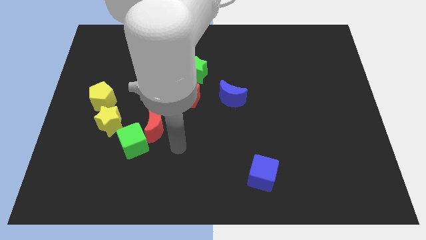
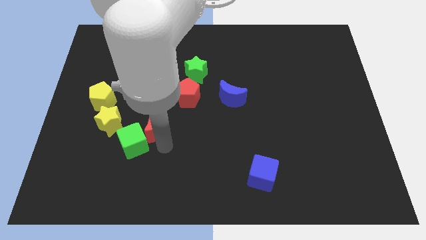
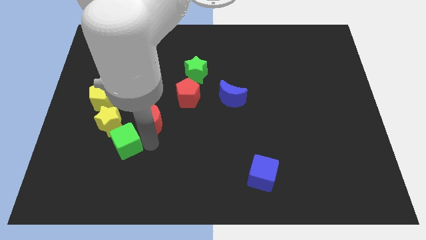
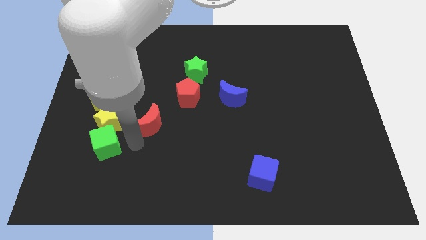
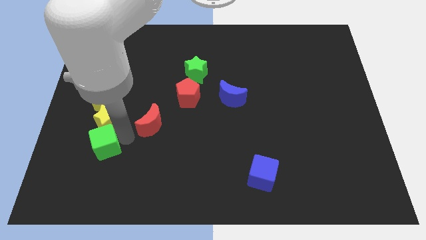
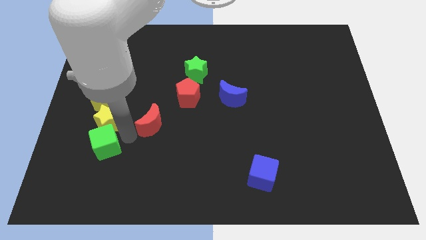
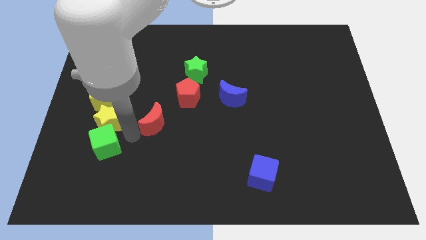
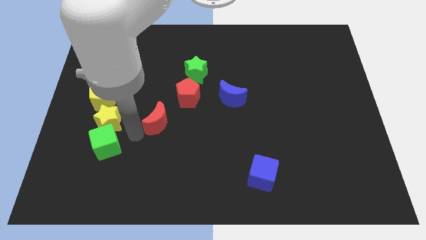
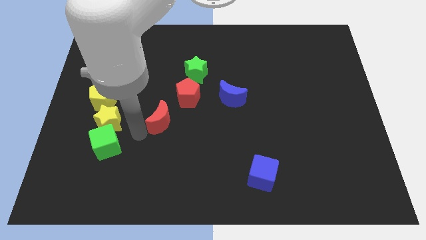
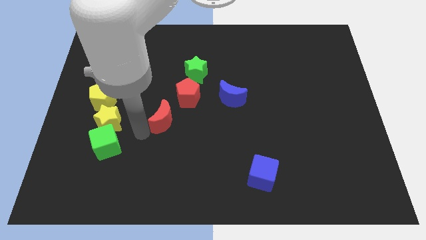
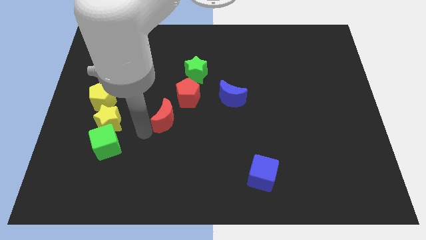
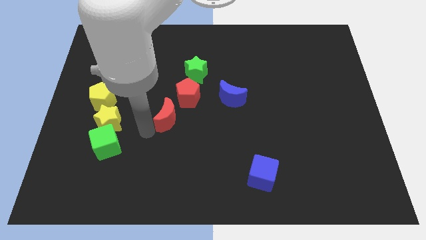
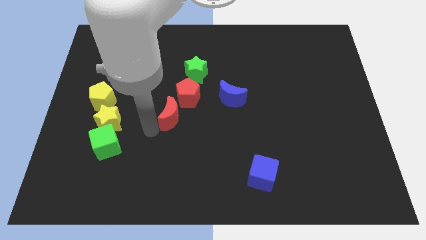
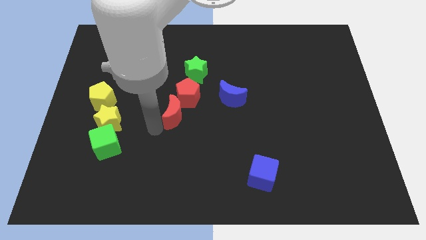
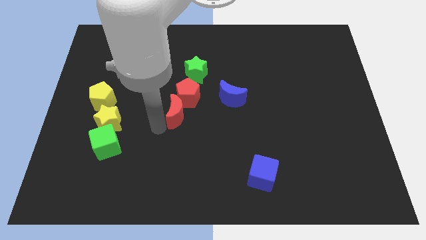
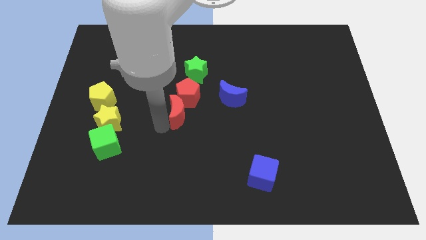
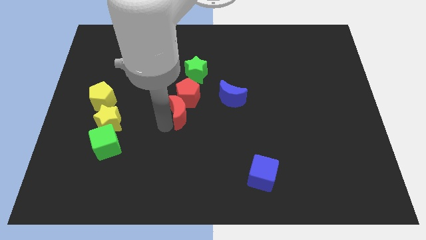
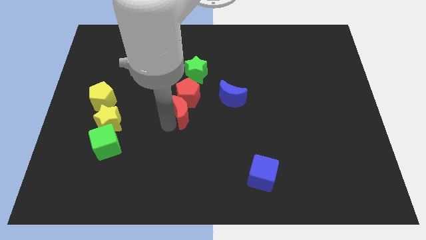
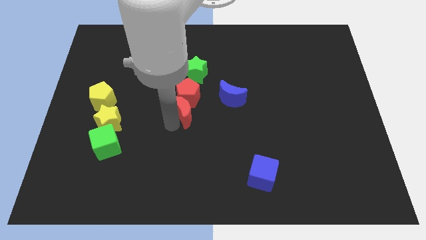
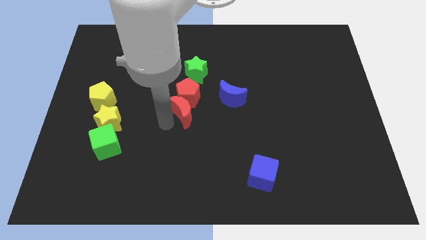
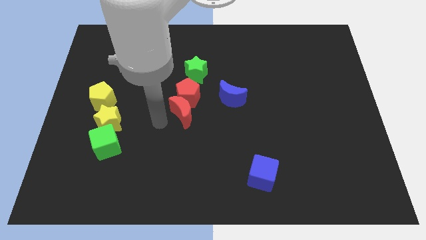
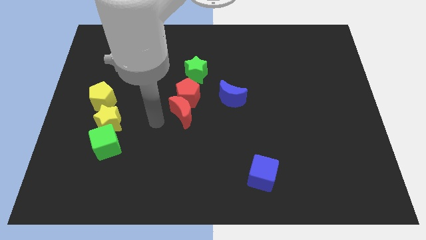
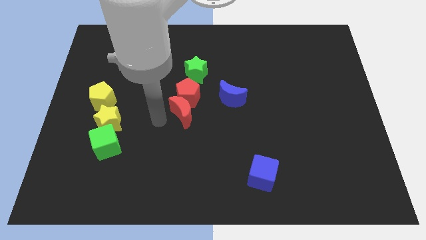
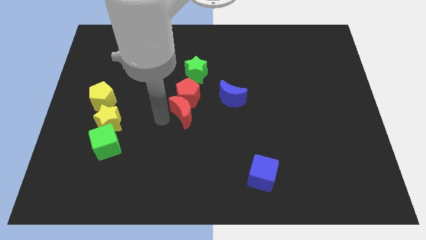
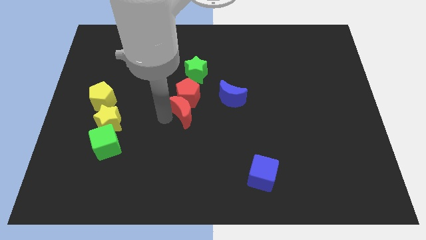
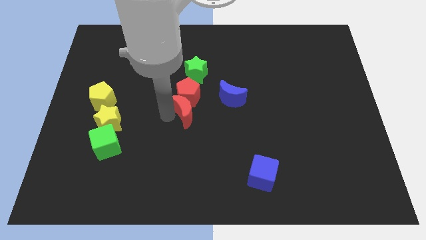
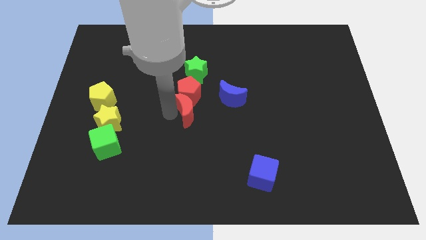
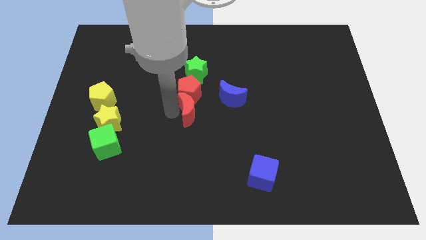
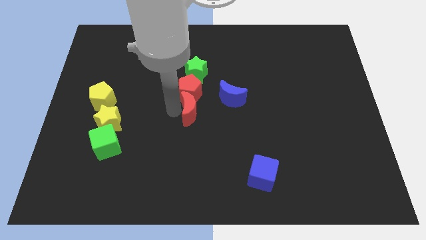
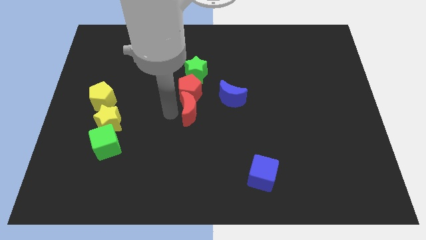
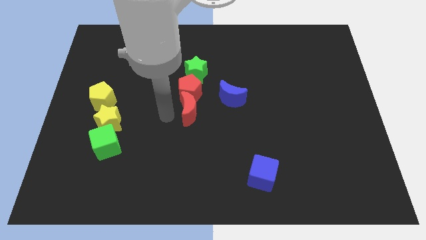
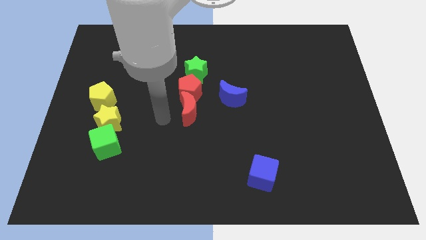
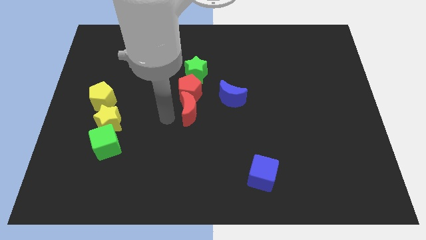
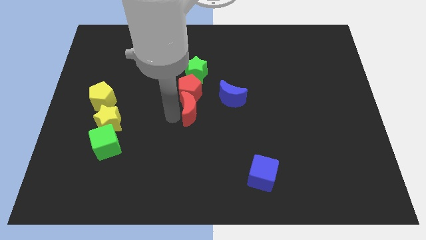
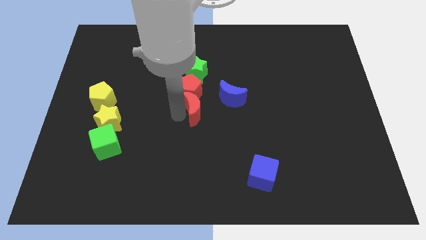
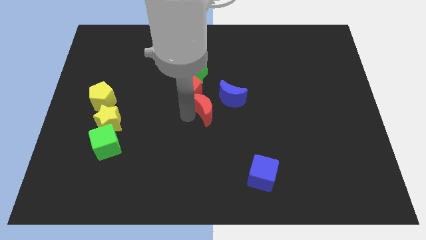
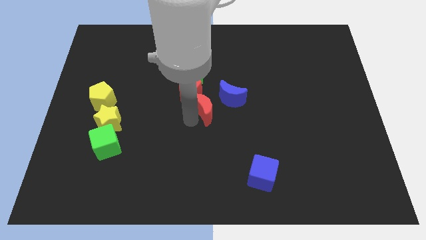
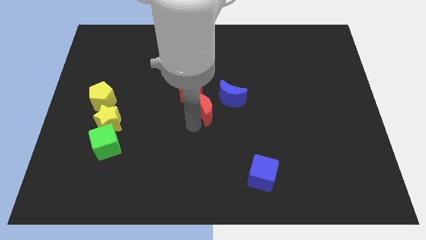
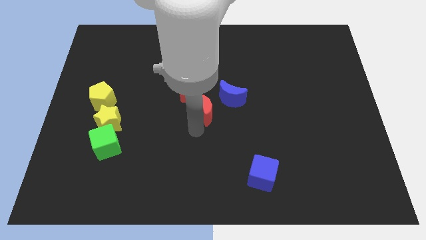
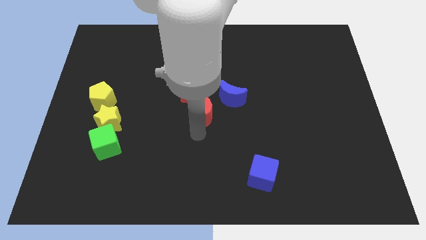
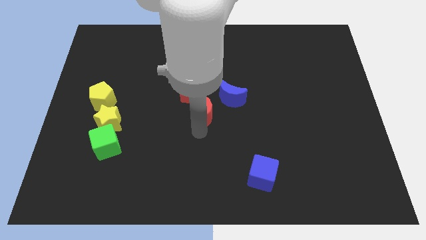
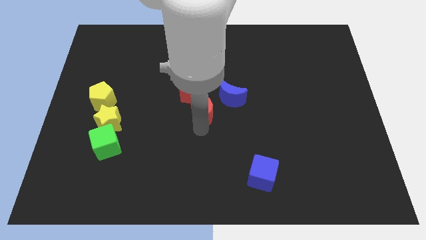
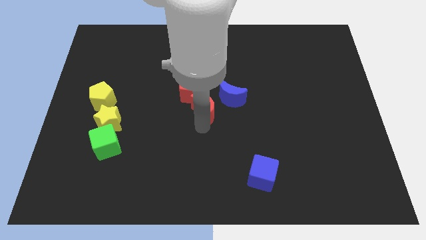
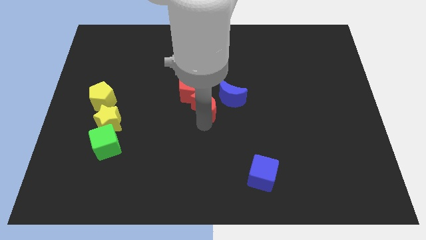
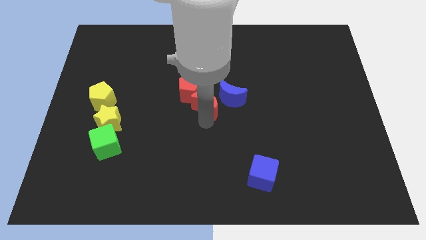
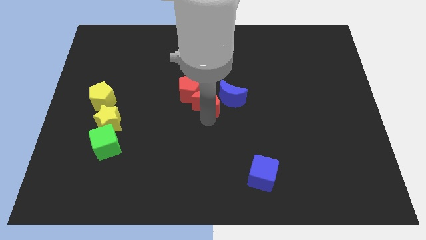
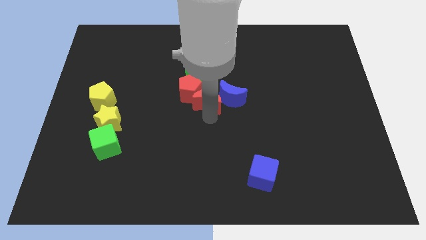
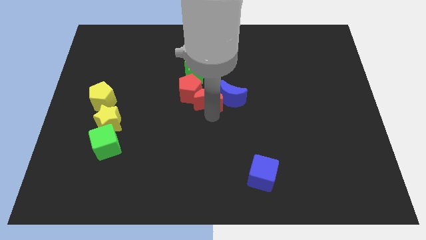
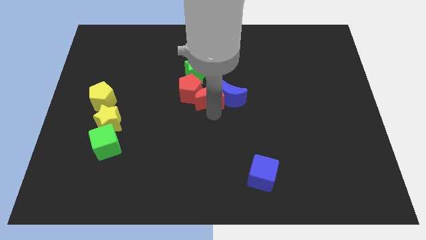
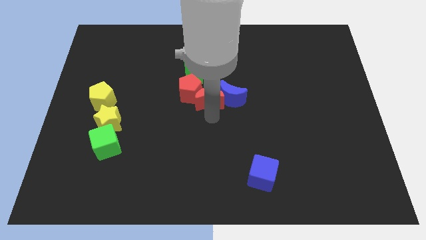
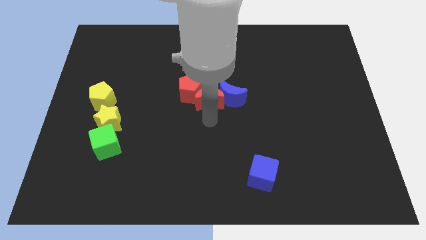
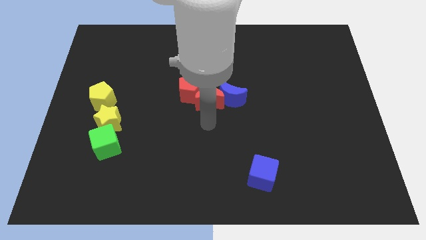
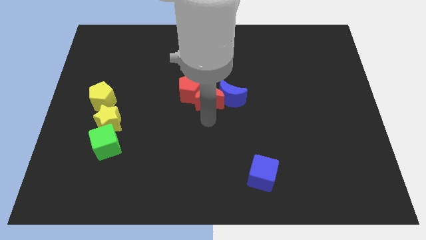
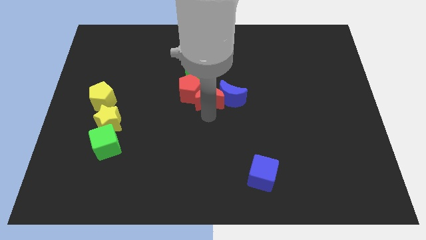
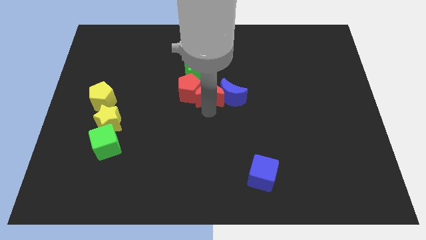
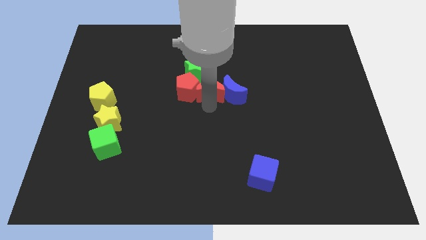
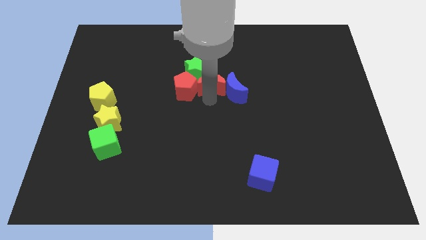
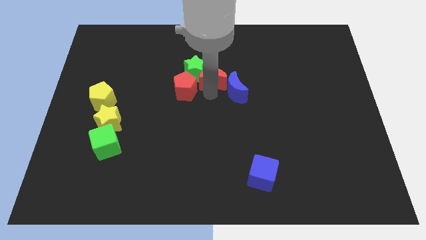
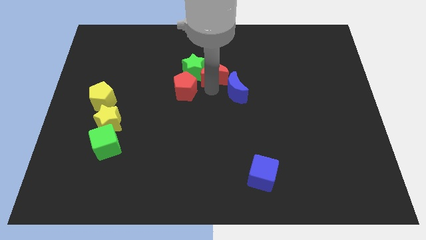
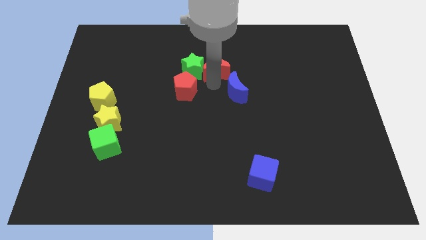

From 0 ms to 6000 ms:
push the red moon to the top right of the green star

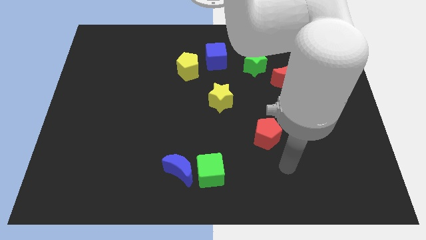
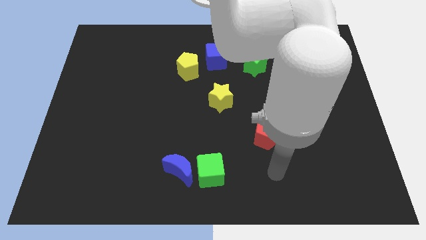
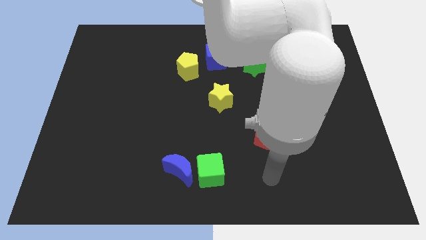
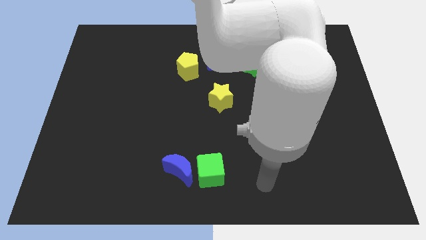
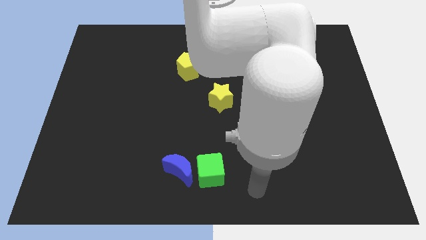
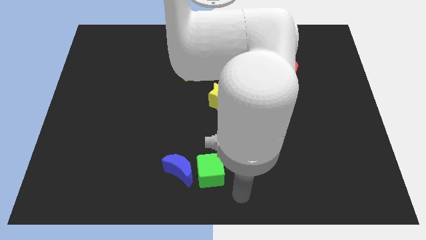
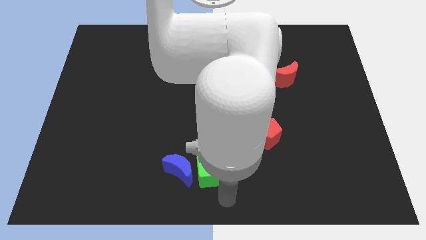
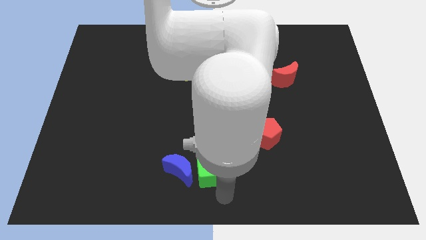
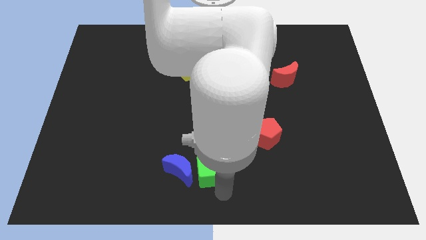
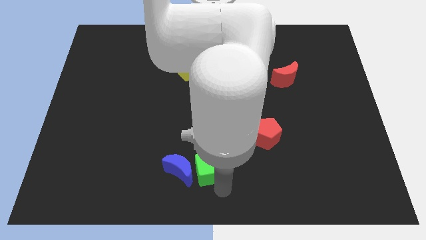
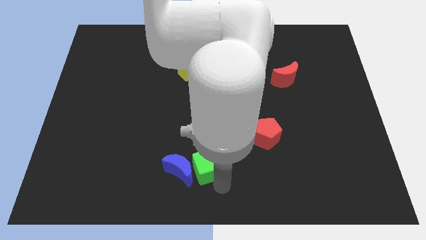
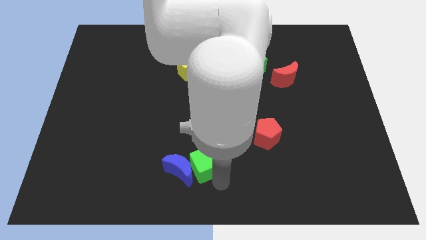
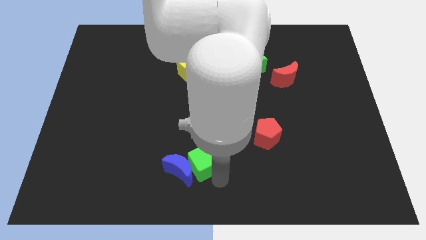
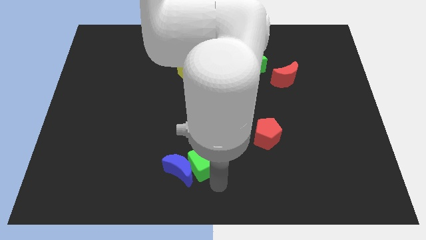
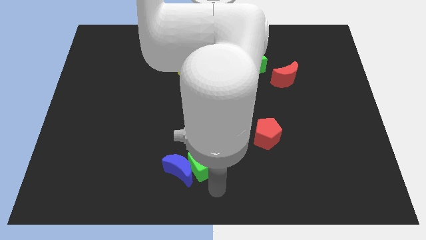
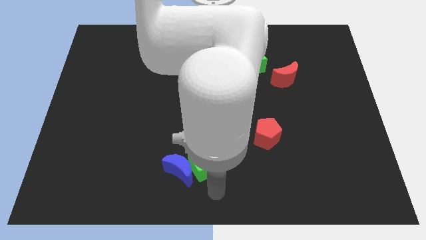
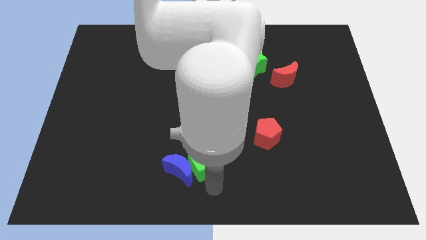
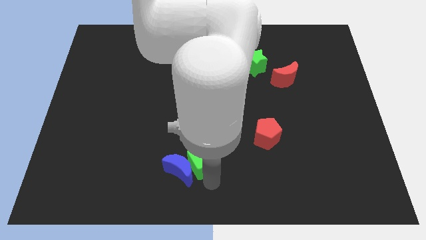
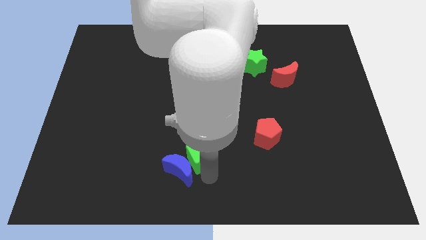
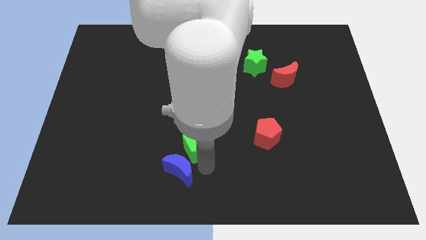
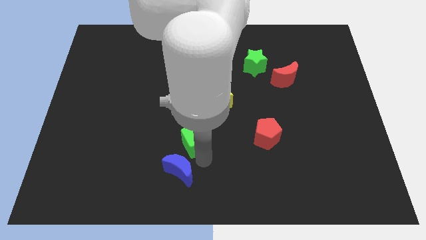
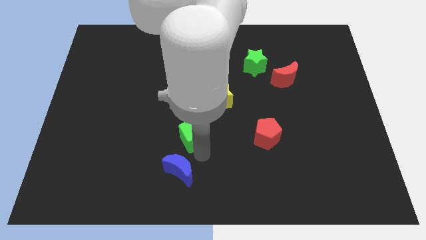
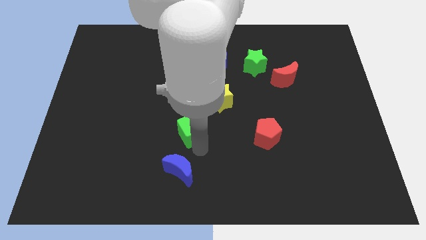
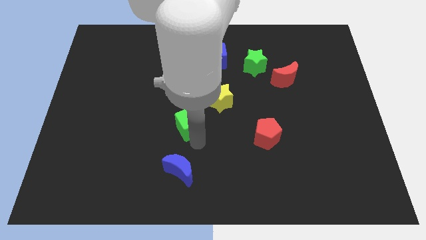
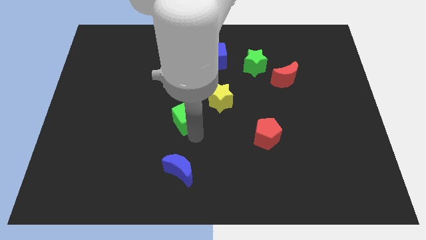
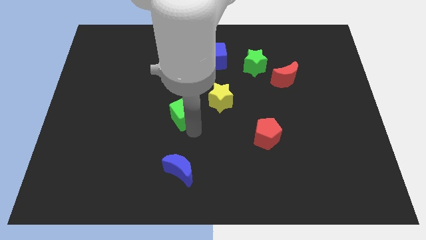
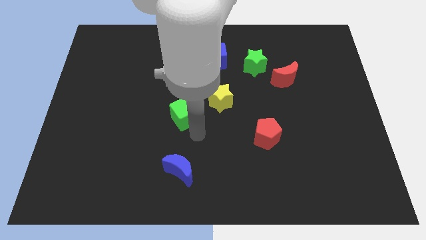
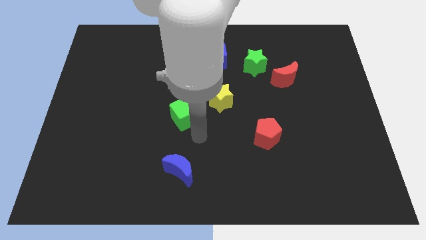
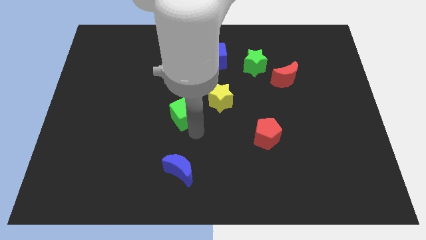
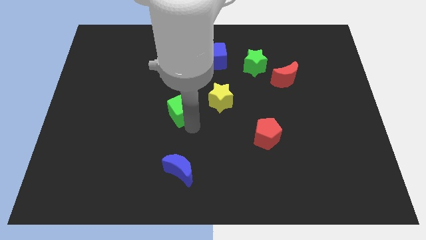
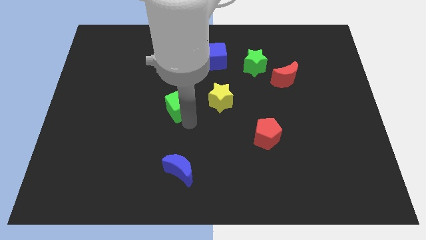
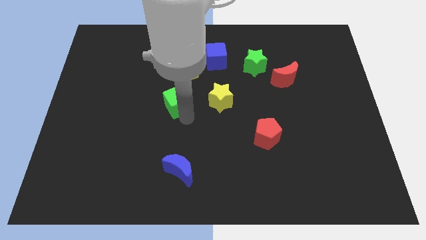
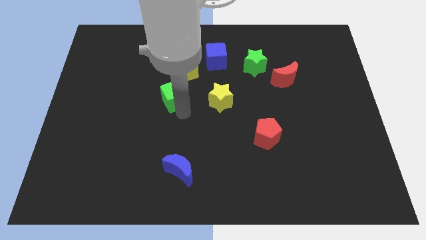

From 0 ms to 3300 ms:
put the green cube to the bottom left of the yellow pentagon
